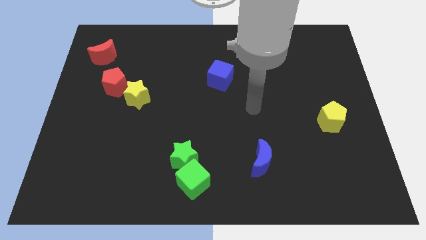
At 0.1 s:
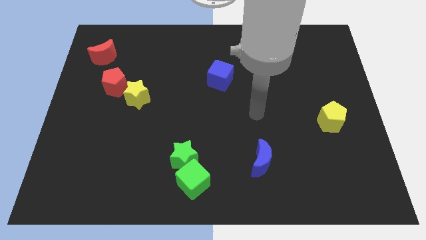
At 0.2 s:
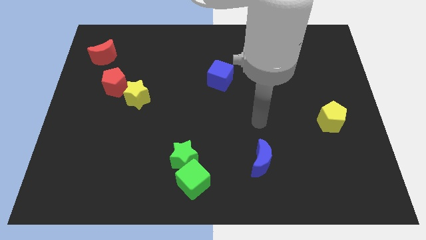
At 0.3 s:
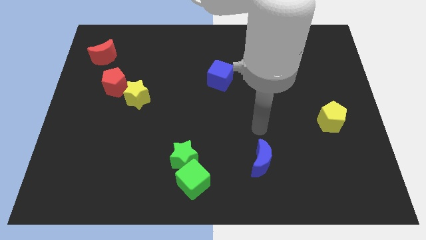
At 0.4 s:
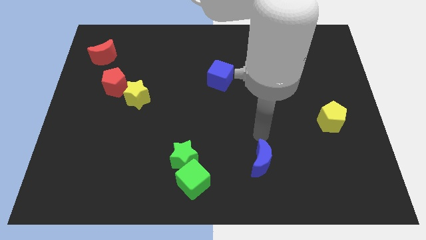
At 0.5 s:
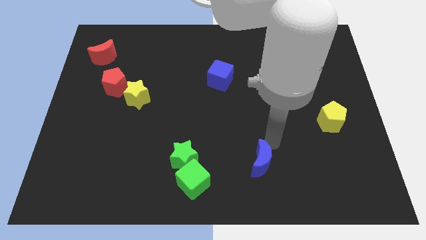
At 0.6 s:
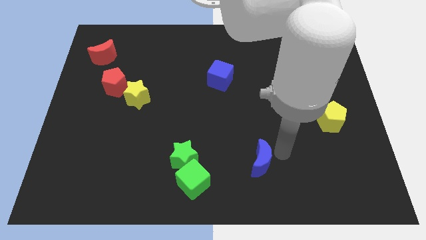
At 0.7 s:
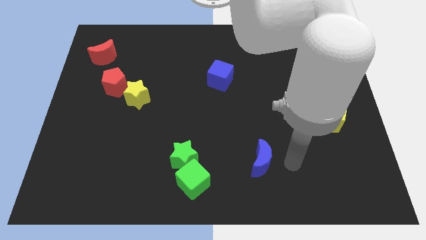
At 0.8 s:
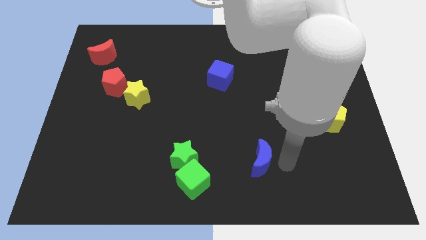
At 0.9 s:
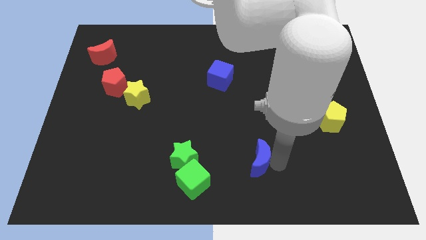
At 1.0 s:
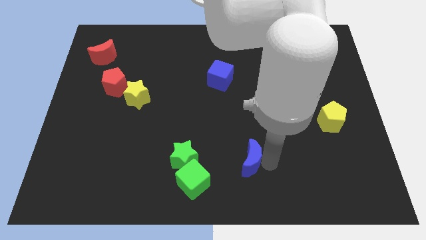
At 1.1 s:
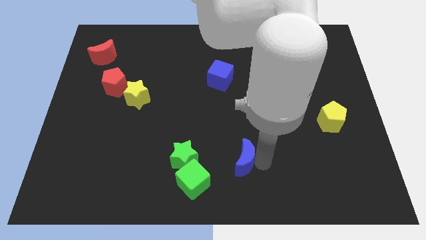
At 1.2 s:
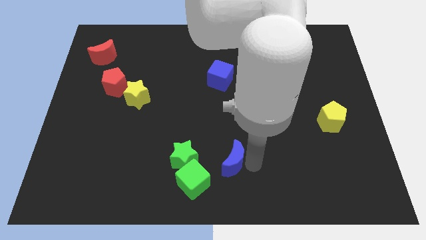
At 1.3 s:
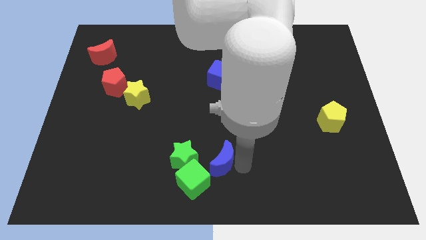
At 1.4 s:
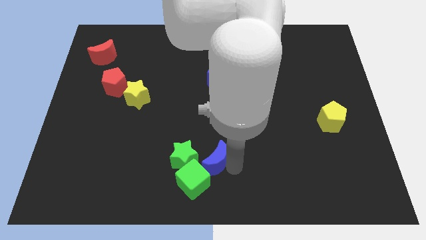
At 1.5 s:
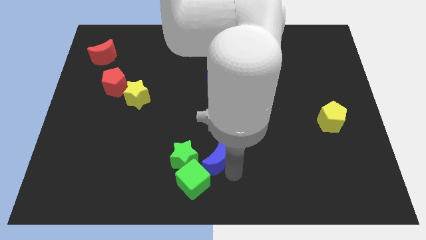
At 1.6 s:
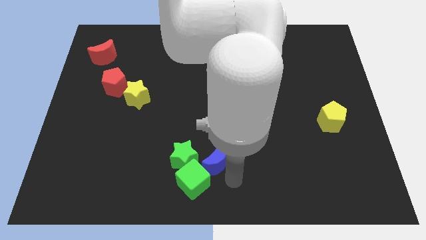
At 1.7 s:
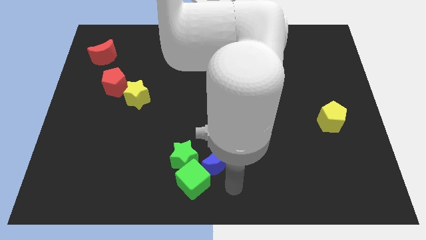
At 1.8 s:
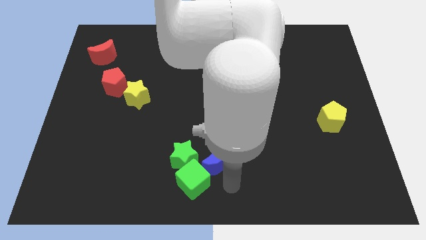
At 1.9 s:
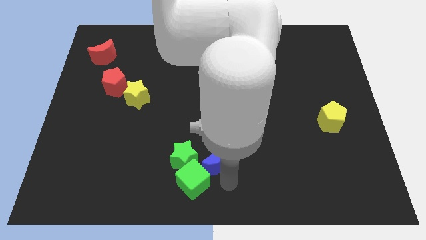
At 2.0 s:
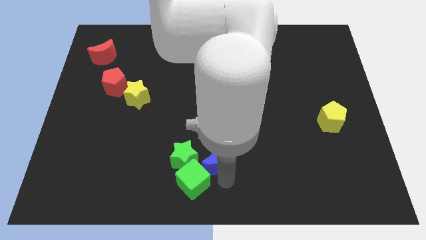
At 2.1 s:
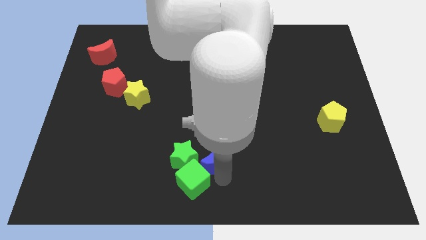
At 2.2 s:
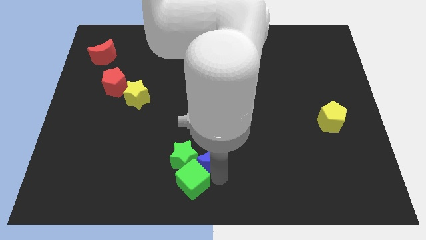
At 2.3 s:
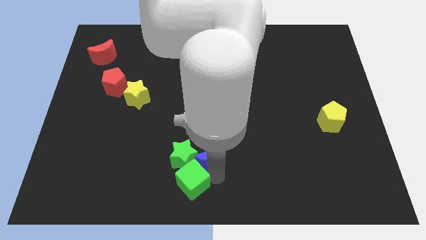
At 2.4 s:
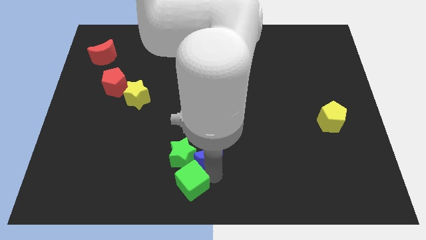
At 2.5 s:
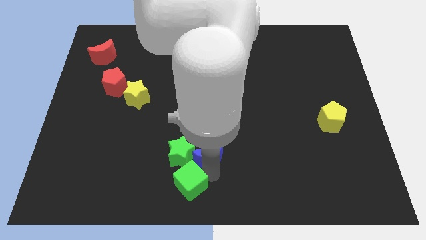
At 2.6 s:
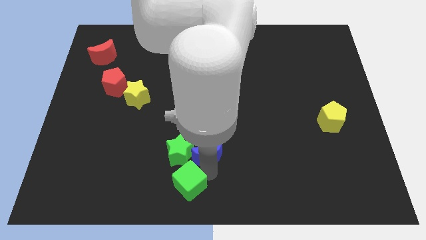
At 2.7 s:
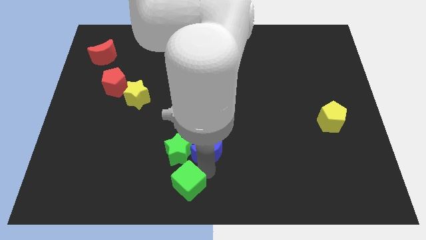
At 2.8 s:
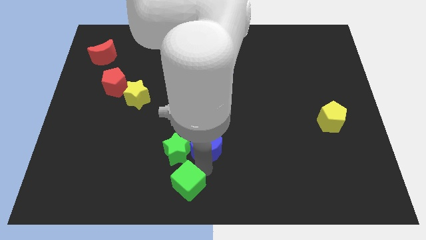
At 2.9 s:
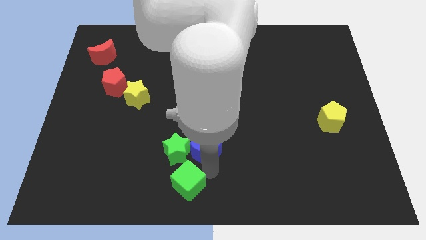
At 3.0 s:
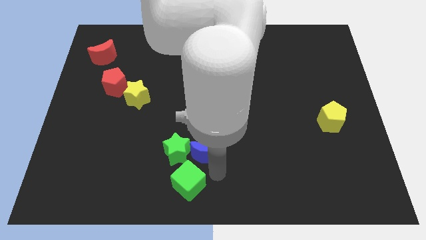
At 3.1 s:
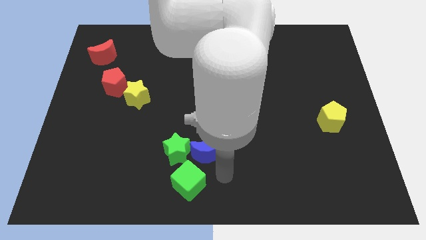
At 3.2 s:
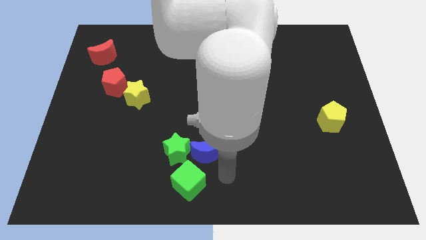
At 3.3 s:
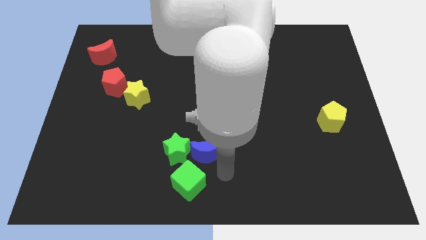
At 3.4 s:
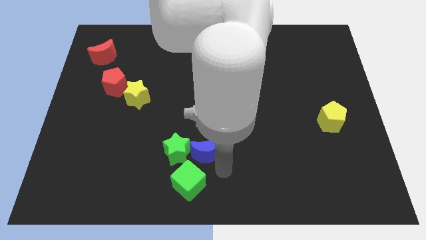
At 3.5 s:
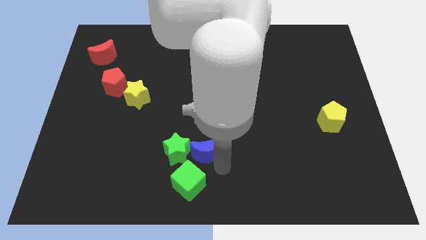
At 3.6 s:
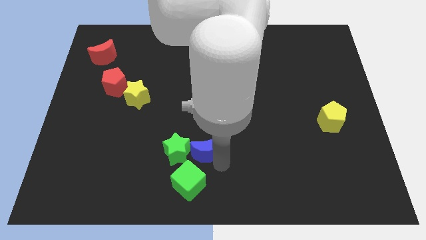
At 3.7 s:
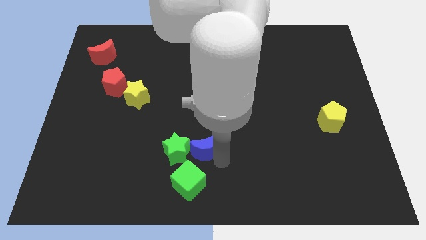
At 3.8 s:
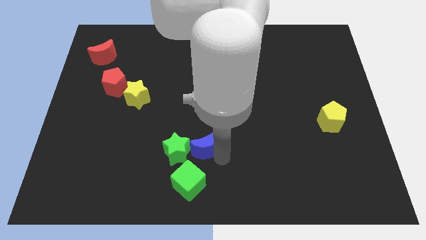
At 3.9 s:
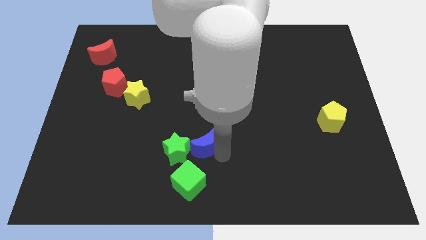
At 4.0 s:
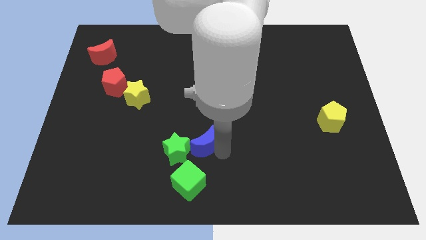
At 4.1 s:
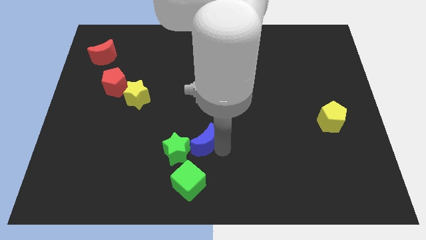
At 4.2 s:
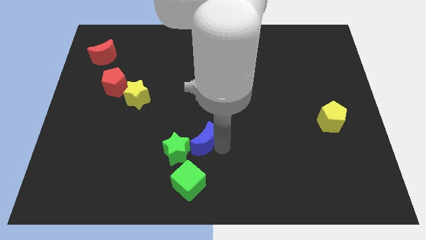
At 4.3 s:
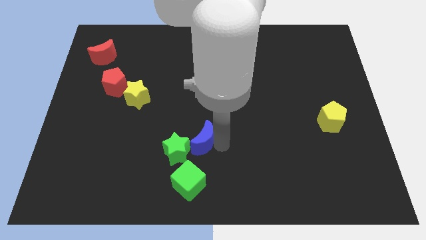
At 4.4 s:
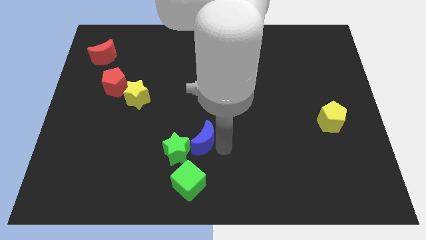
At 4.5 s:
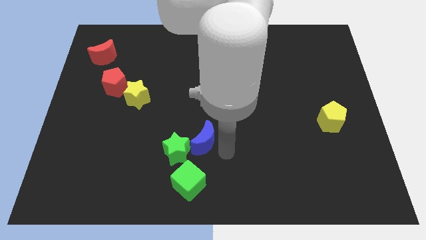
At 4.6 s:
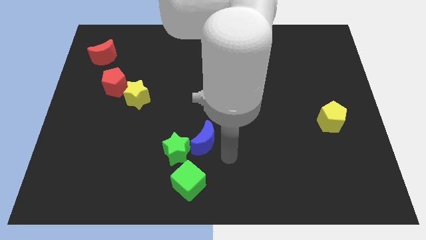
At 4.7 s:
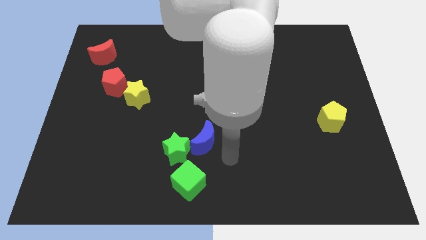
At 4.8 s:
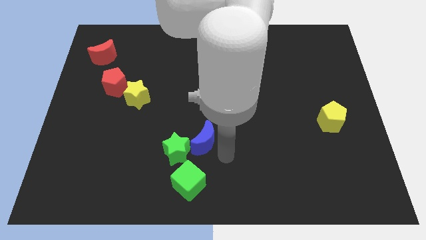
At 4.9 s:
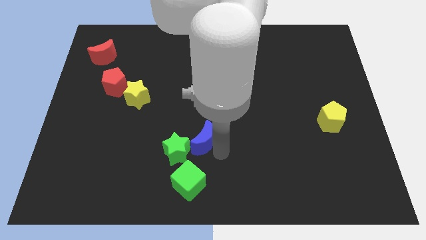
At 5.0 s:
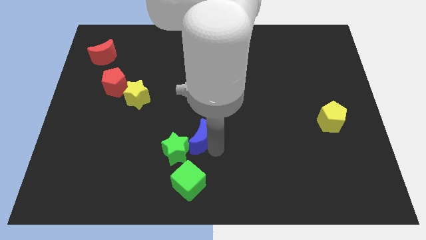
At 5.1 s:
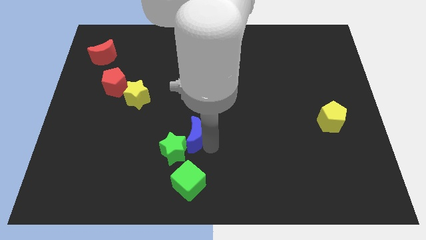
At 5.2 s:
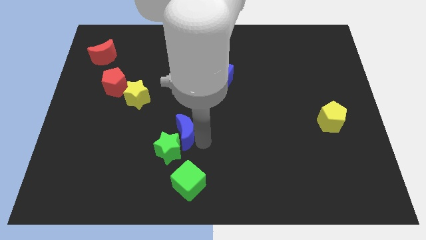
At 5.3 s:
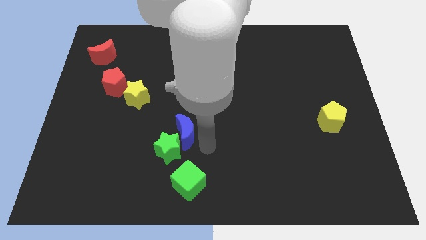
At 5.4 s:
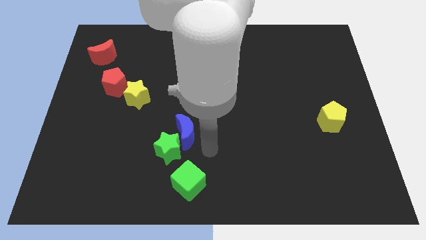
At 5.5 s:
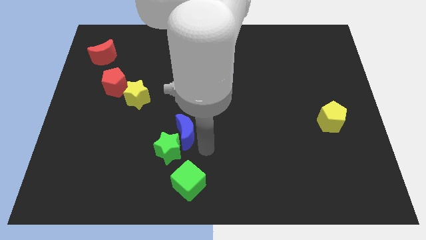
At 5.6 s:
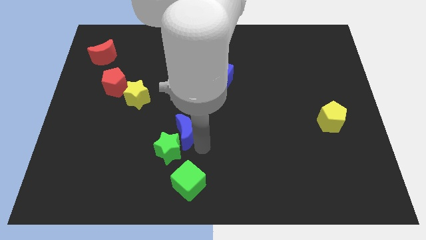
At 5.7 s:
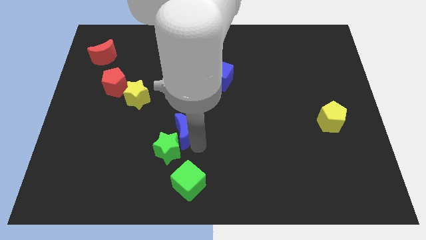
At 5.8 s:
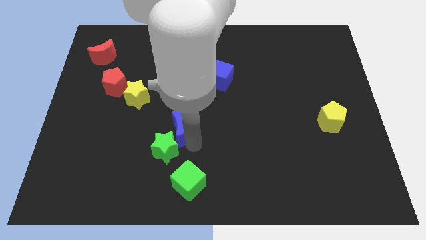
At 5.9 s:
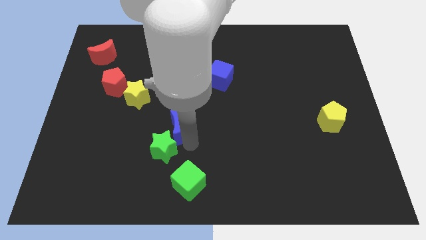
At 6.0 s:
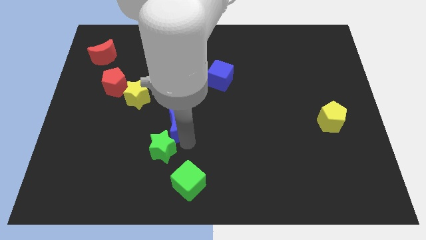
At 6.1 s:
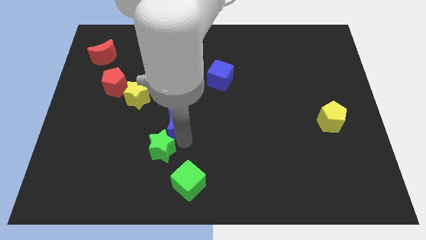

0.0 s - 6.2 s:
put the blue moon to the bottom right of the yellow star

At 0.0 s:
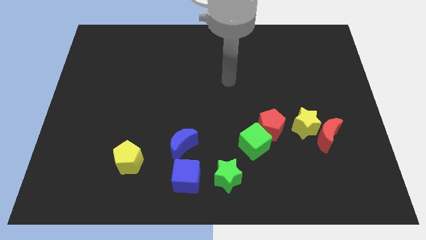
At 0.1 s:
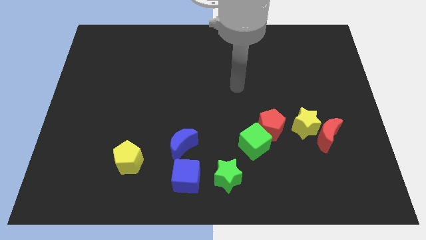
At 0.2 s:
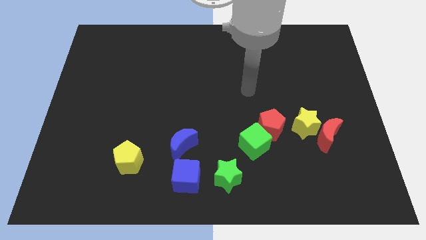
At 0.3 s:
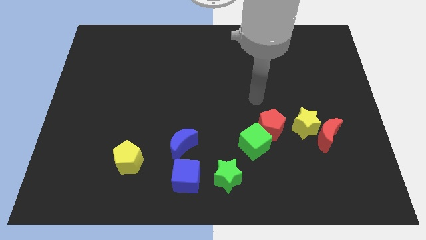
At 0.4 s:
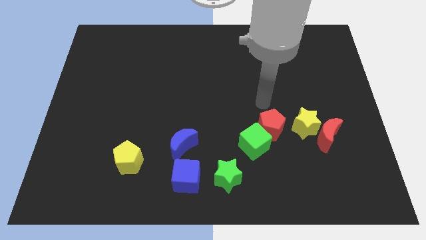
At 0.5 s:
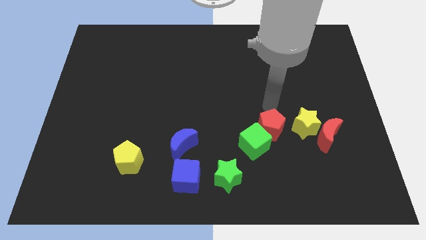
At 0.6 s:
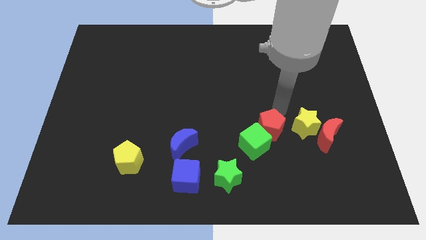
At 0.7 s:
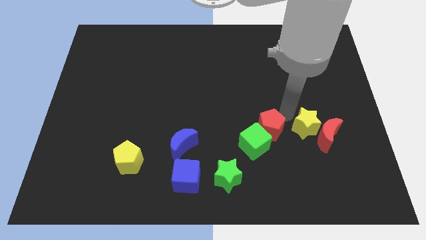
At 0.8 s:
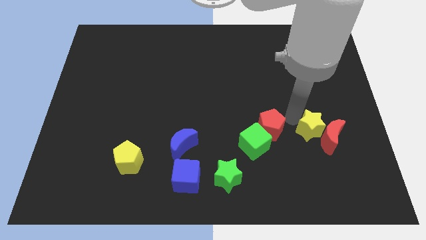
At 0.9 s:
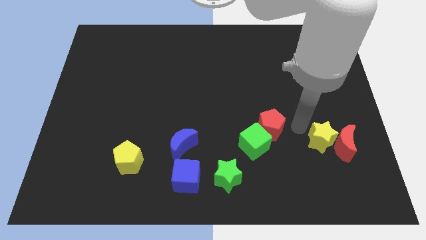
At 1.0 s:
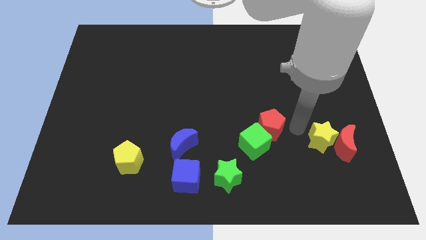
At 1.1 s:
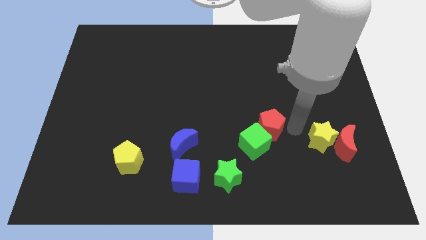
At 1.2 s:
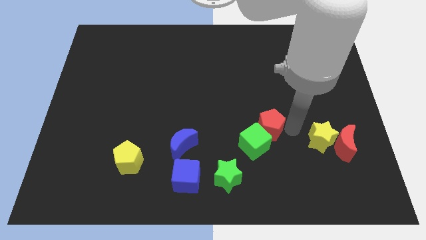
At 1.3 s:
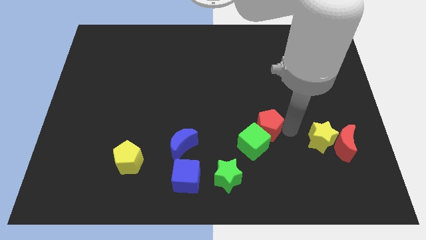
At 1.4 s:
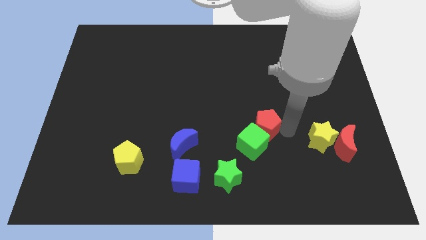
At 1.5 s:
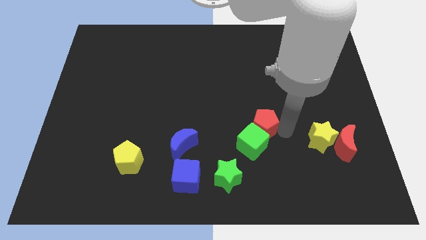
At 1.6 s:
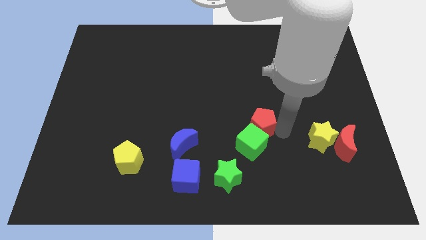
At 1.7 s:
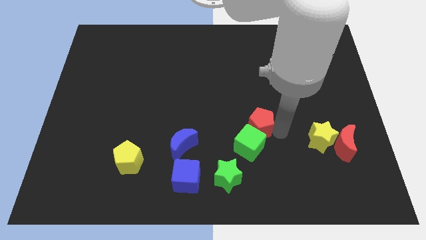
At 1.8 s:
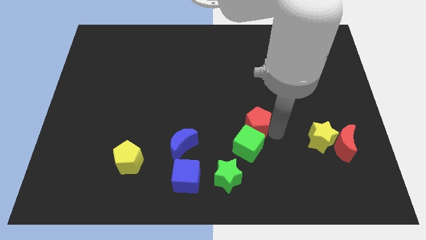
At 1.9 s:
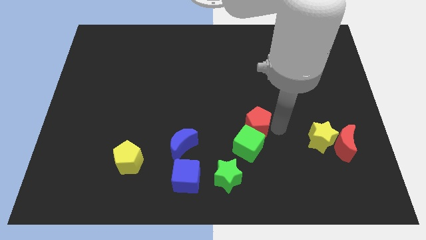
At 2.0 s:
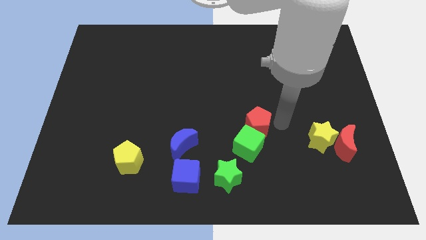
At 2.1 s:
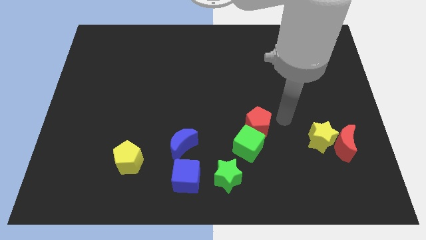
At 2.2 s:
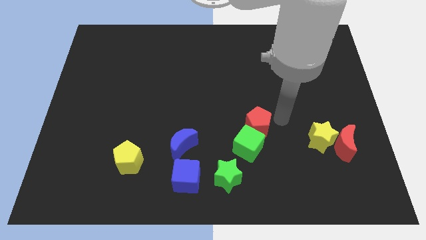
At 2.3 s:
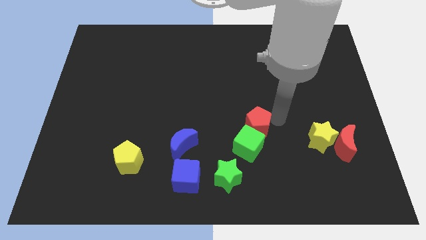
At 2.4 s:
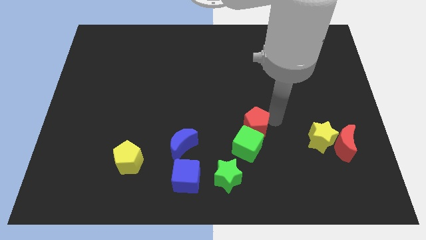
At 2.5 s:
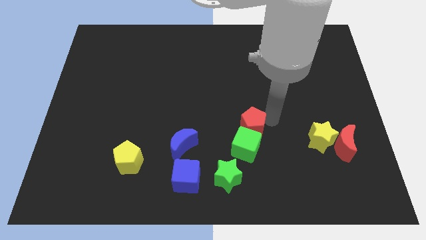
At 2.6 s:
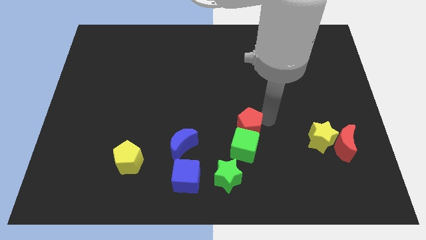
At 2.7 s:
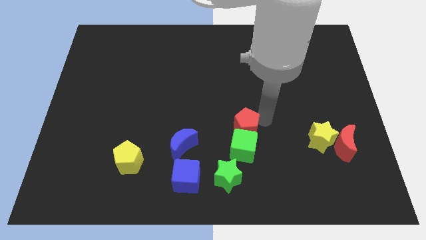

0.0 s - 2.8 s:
move the red pentagon above the green star
